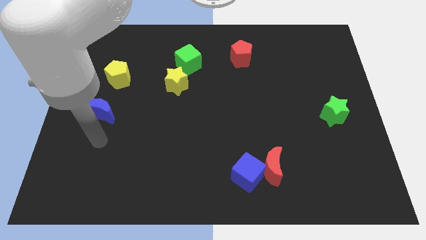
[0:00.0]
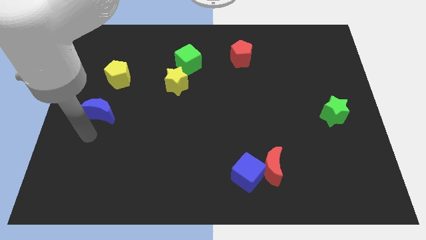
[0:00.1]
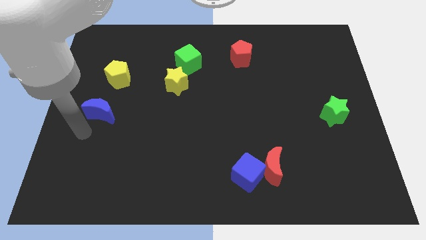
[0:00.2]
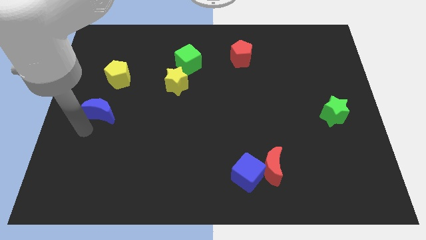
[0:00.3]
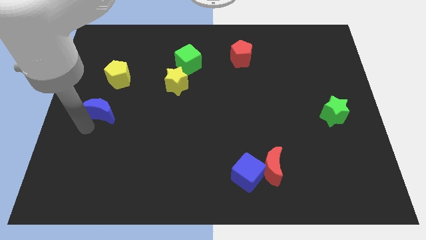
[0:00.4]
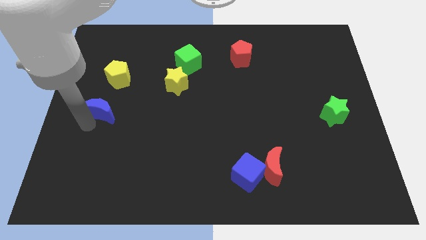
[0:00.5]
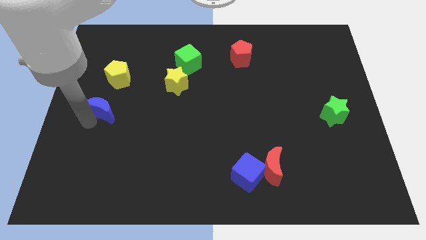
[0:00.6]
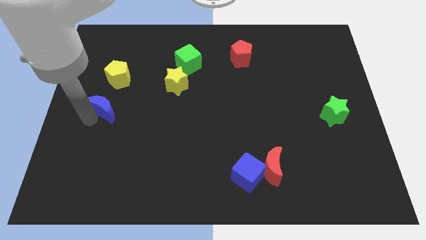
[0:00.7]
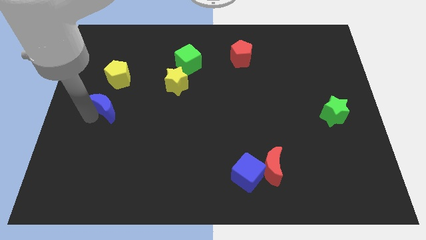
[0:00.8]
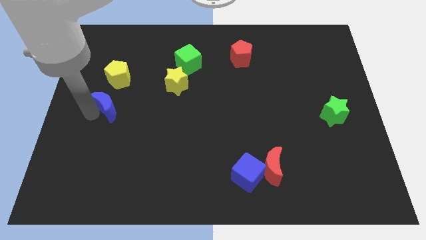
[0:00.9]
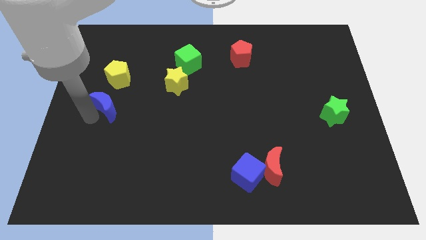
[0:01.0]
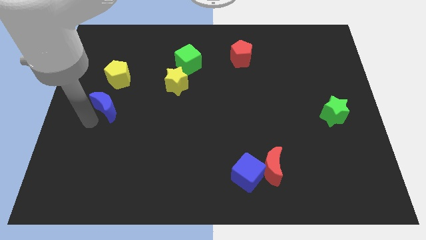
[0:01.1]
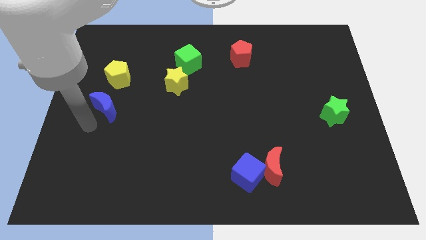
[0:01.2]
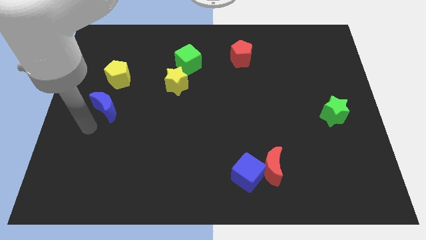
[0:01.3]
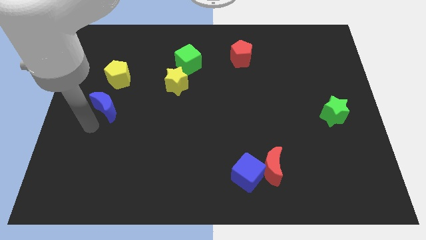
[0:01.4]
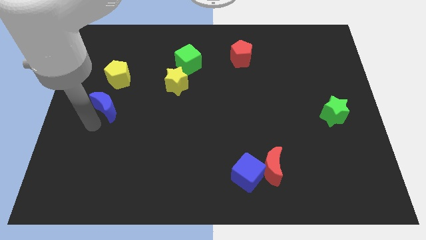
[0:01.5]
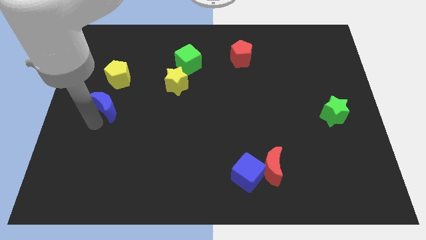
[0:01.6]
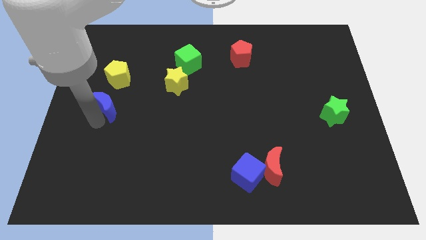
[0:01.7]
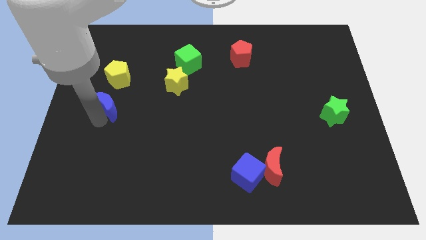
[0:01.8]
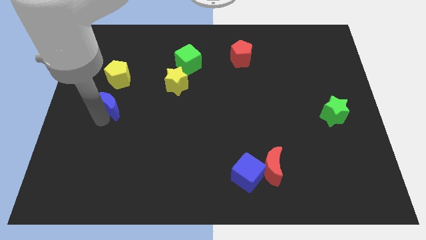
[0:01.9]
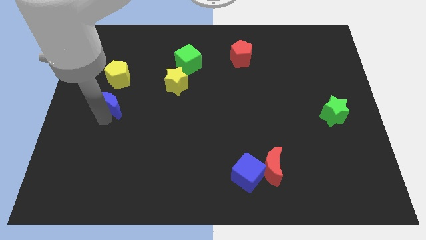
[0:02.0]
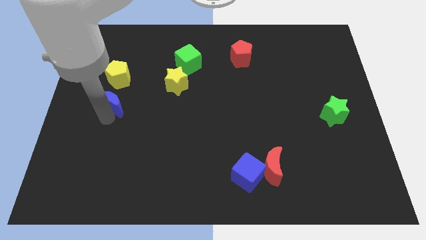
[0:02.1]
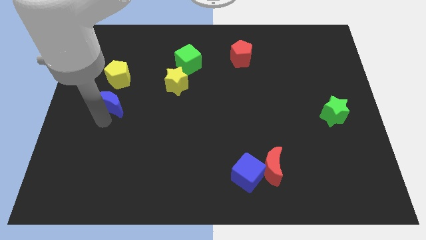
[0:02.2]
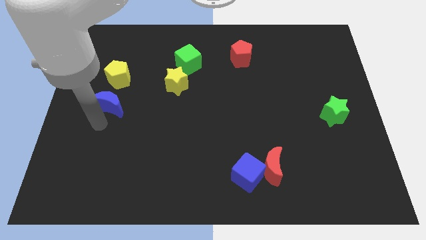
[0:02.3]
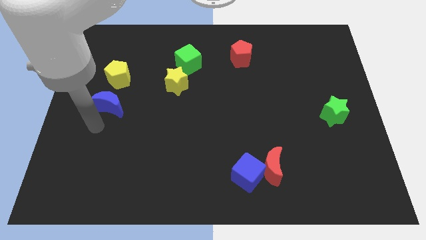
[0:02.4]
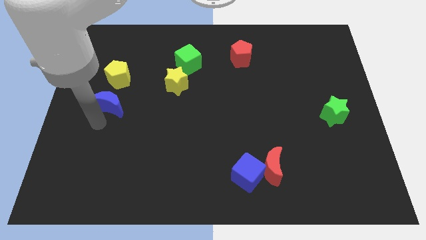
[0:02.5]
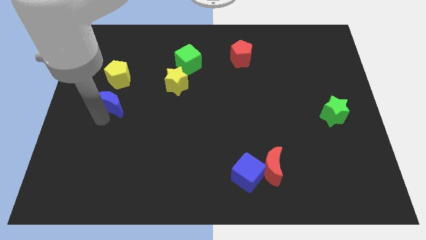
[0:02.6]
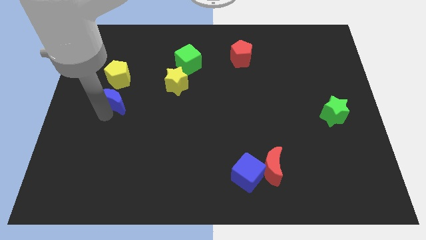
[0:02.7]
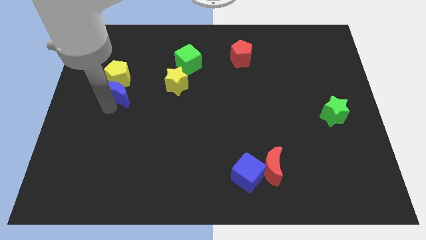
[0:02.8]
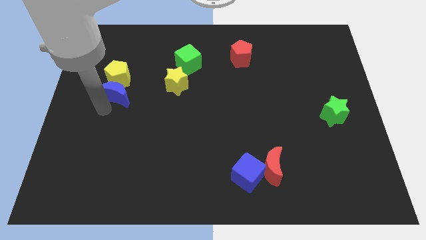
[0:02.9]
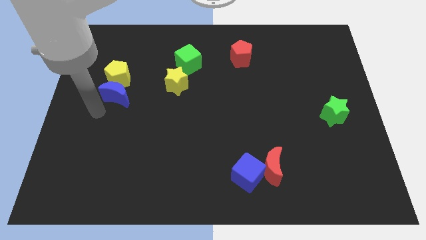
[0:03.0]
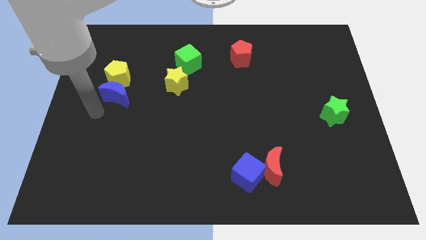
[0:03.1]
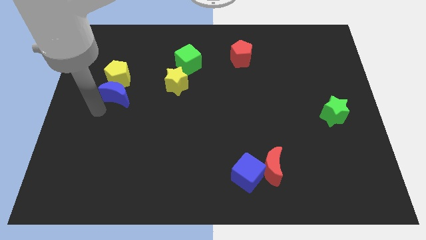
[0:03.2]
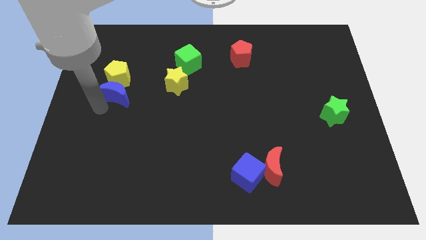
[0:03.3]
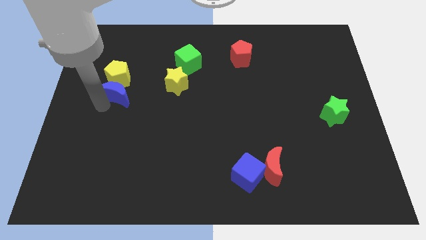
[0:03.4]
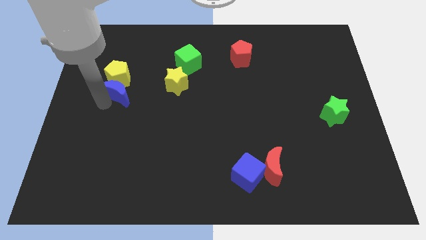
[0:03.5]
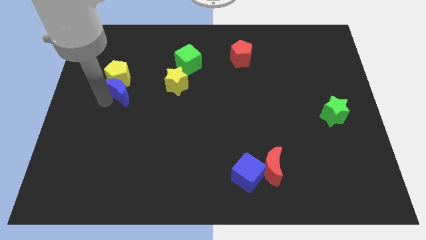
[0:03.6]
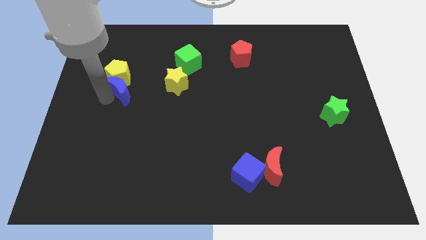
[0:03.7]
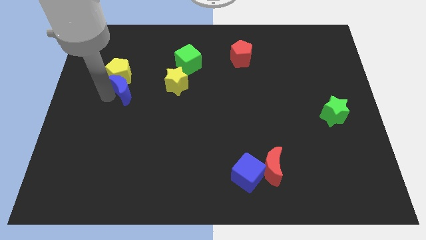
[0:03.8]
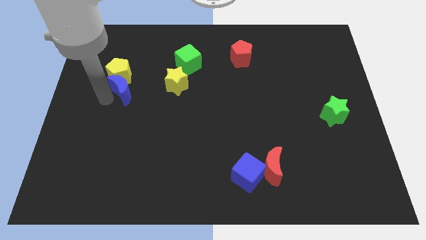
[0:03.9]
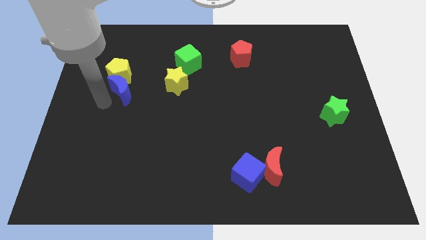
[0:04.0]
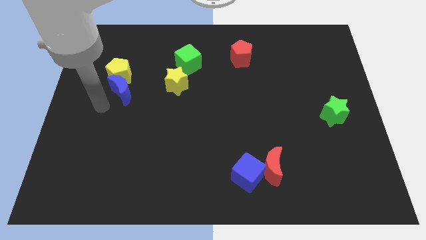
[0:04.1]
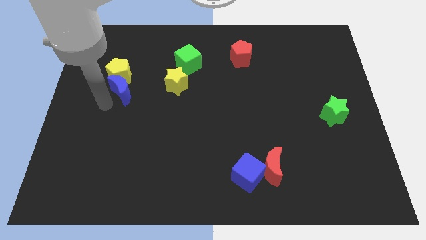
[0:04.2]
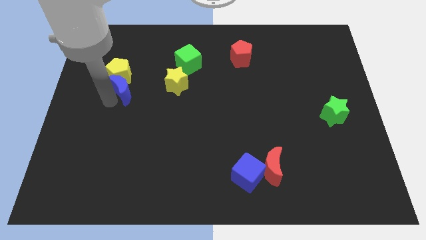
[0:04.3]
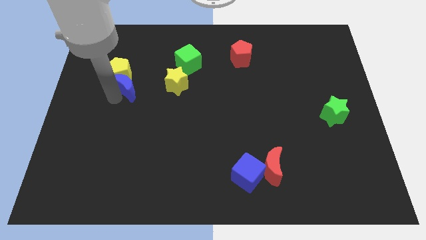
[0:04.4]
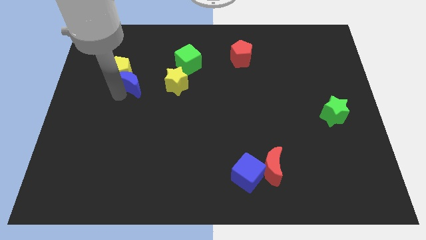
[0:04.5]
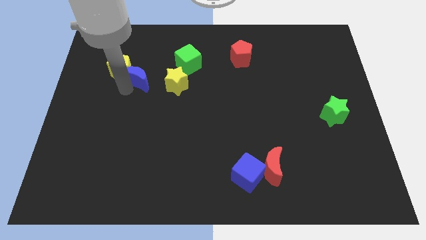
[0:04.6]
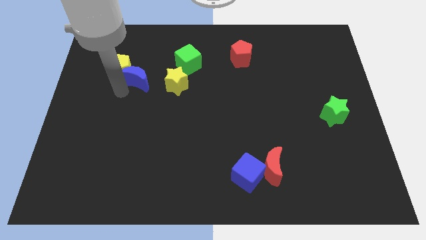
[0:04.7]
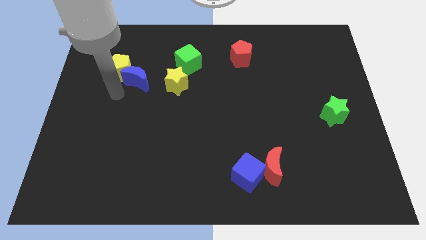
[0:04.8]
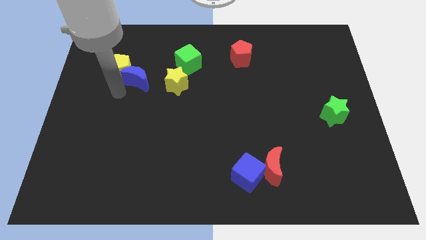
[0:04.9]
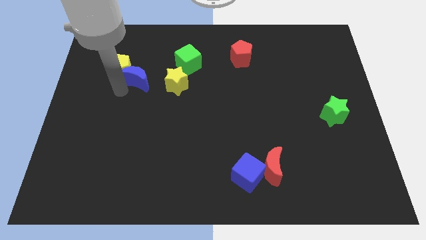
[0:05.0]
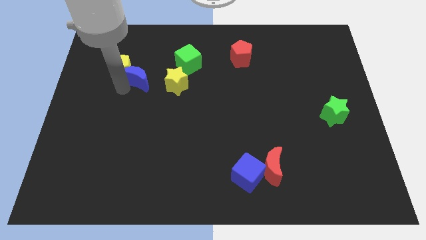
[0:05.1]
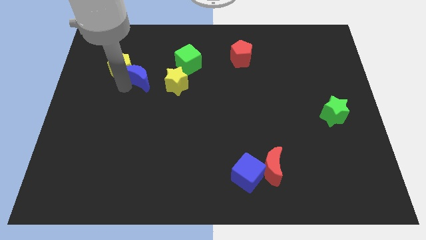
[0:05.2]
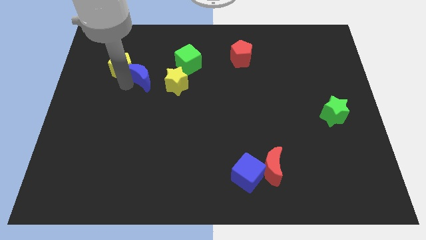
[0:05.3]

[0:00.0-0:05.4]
slide the blue moon to the top left side of the yellow star

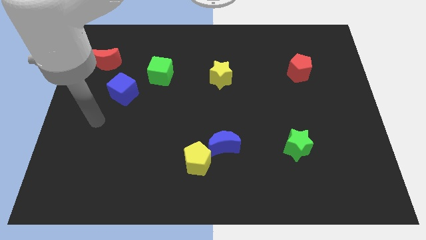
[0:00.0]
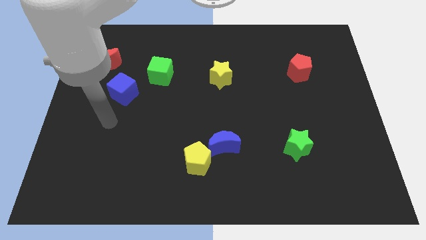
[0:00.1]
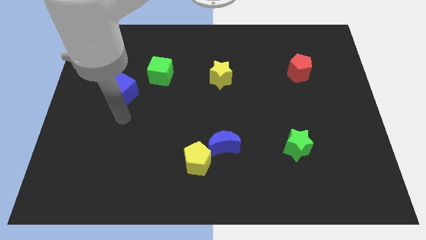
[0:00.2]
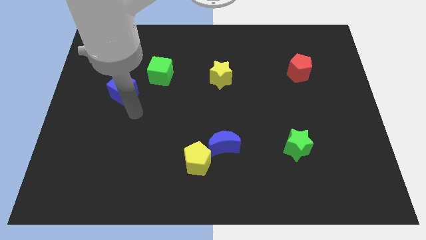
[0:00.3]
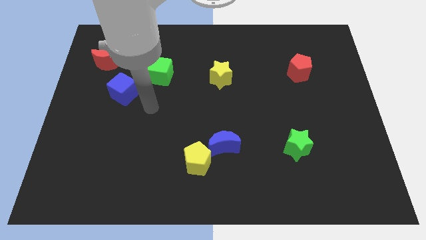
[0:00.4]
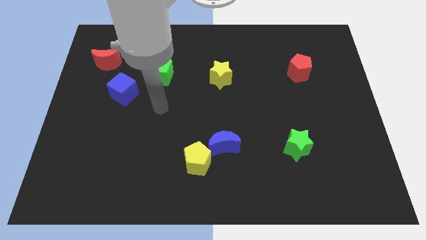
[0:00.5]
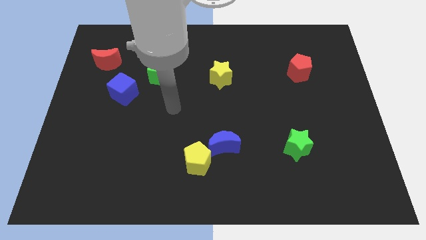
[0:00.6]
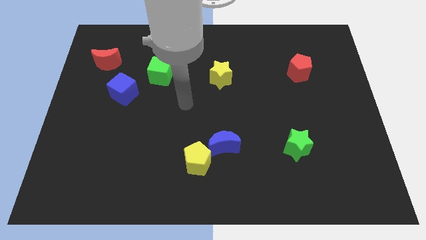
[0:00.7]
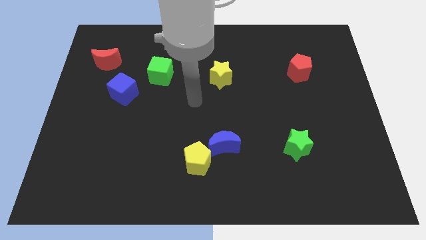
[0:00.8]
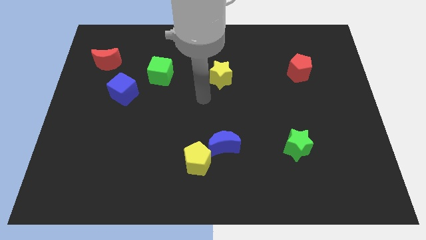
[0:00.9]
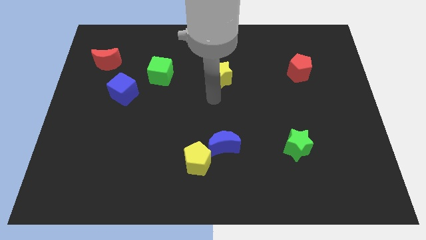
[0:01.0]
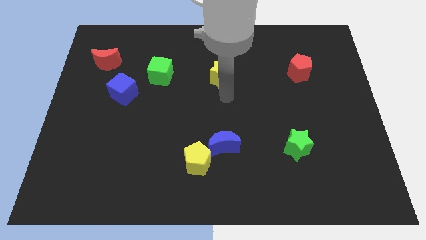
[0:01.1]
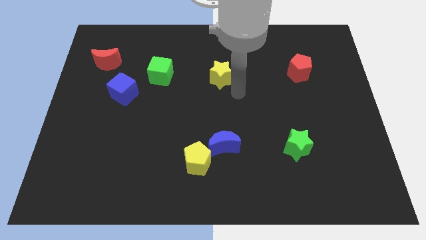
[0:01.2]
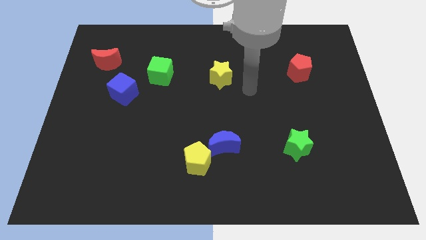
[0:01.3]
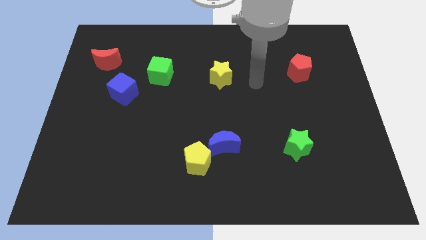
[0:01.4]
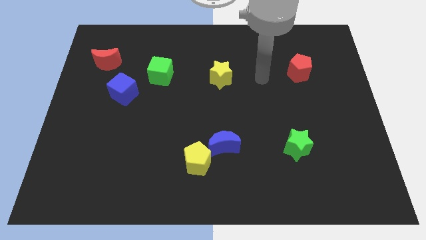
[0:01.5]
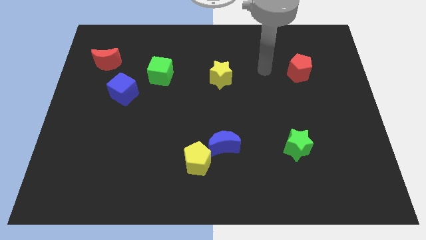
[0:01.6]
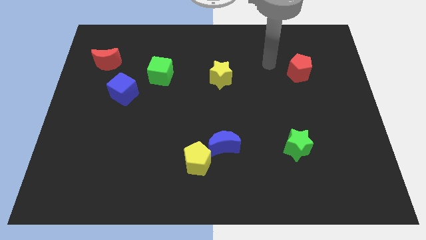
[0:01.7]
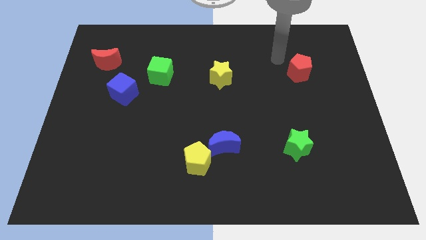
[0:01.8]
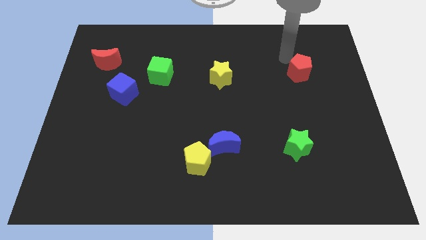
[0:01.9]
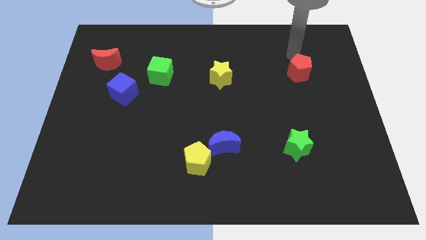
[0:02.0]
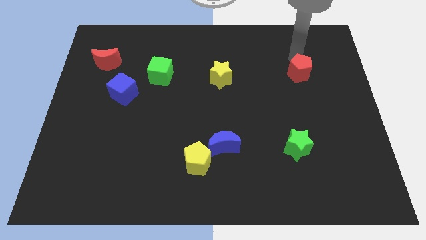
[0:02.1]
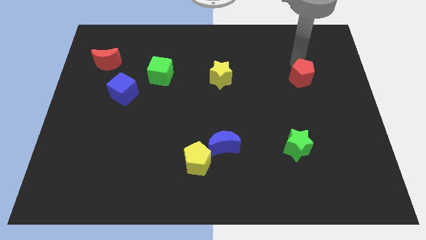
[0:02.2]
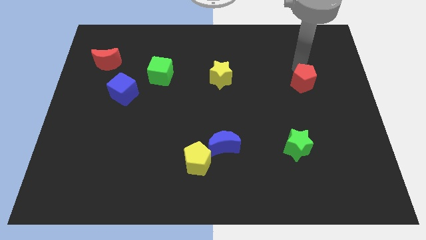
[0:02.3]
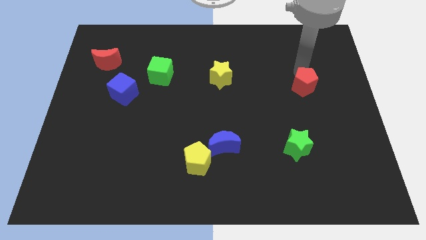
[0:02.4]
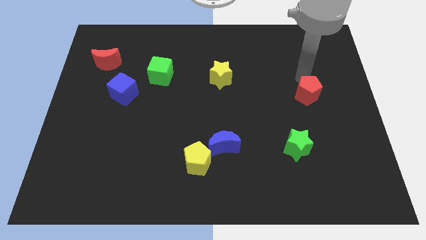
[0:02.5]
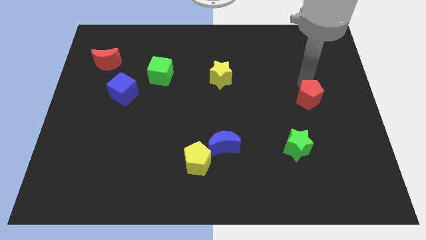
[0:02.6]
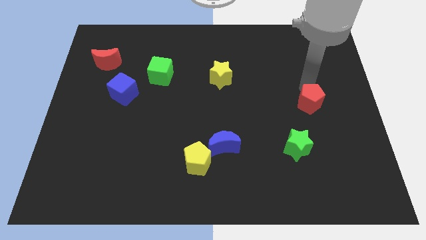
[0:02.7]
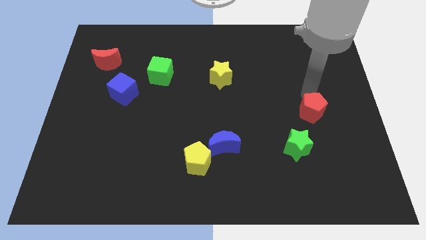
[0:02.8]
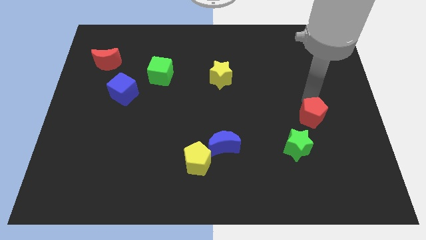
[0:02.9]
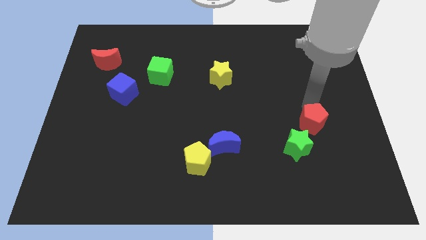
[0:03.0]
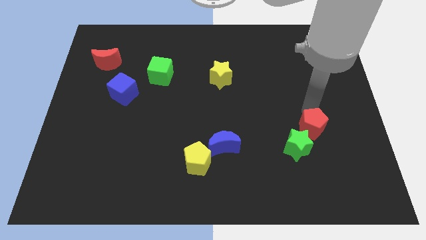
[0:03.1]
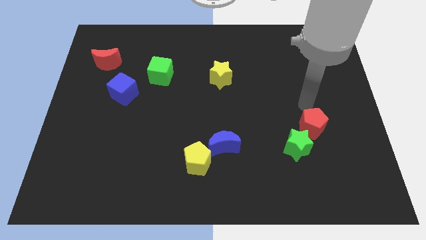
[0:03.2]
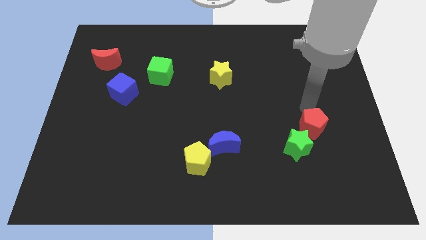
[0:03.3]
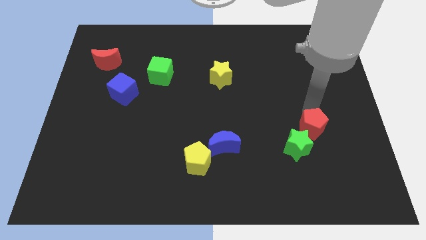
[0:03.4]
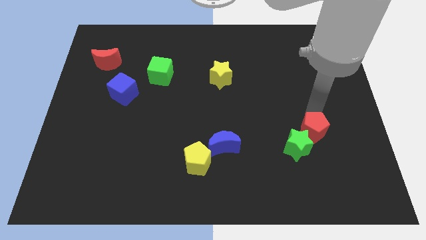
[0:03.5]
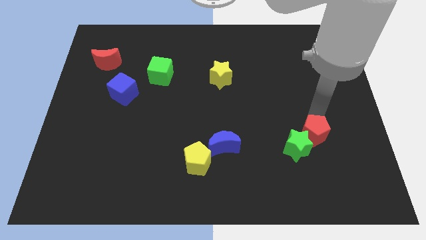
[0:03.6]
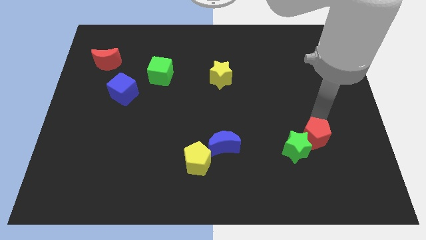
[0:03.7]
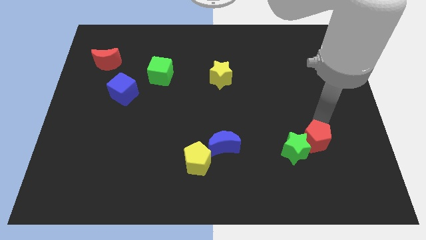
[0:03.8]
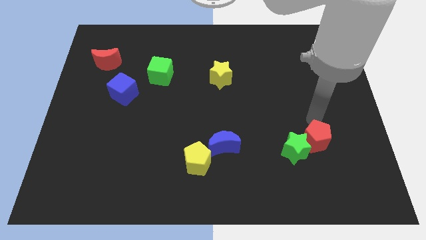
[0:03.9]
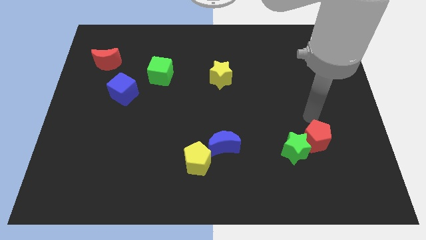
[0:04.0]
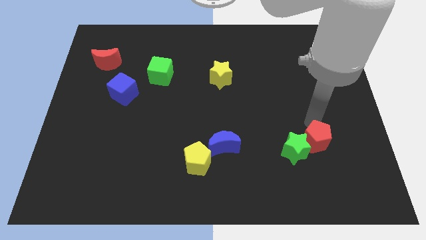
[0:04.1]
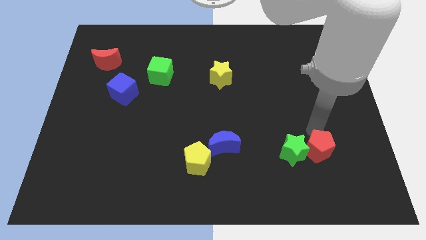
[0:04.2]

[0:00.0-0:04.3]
push the red pentagon to the bottom right side of the green star
